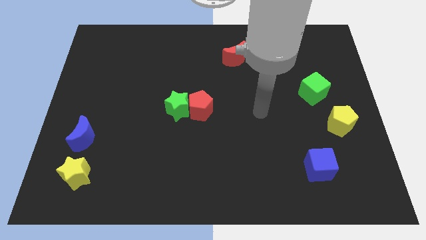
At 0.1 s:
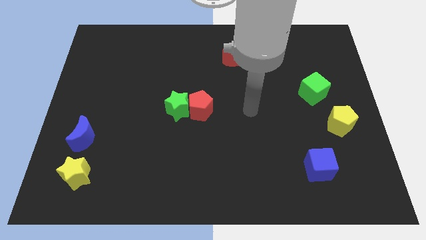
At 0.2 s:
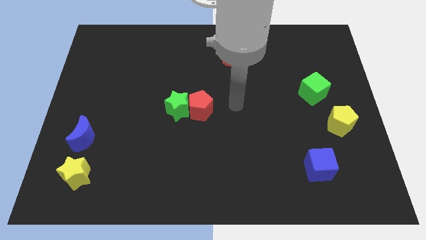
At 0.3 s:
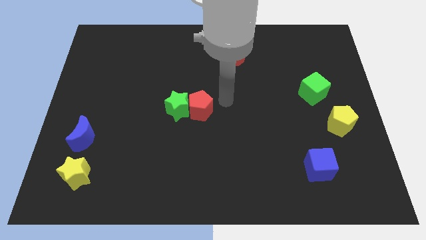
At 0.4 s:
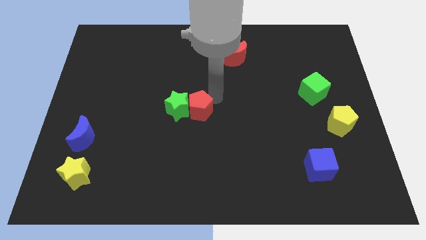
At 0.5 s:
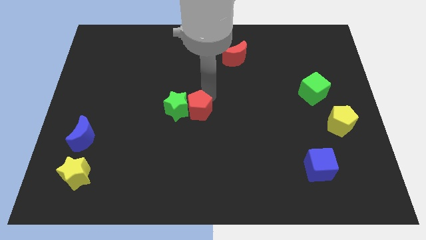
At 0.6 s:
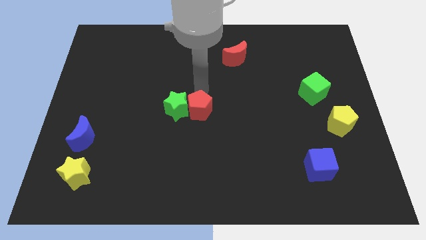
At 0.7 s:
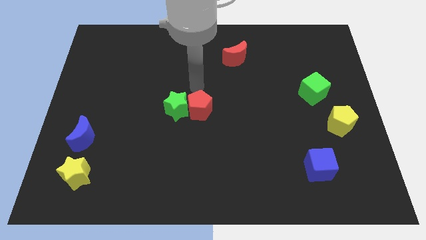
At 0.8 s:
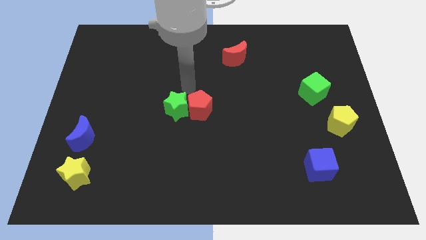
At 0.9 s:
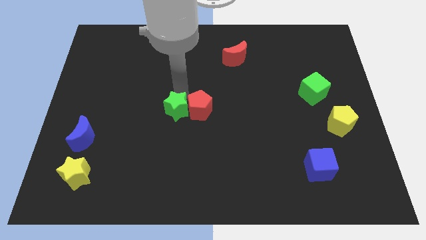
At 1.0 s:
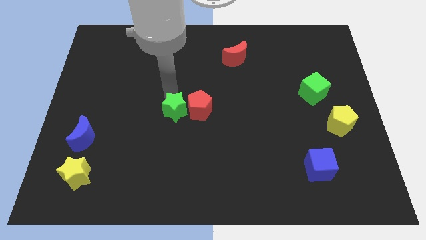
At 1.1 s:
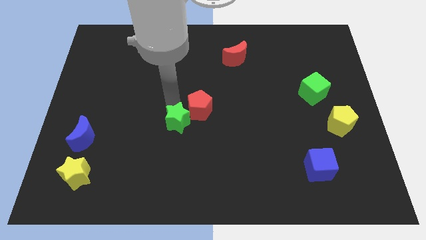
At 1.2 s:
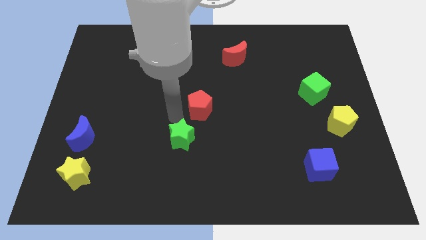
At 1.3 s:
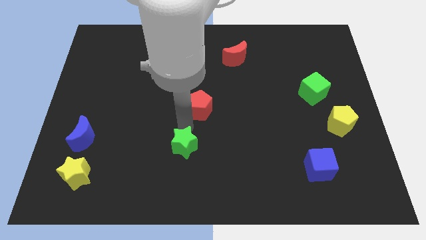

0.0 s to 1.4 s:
separate the red pentagon from the green star

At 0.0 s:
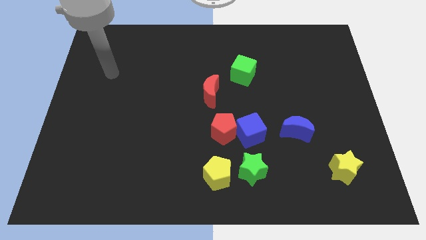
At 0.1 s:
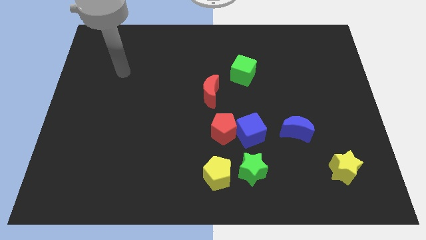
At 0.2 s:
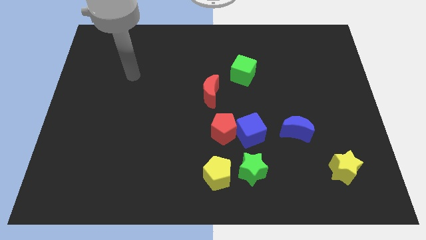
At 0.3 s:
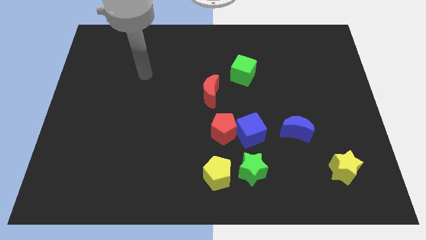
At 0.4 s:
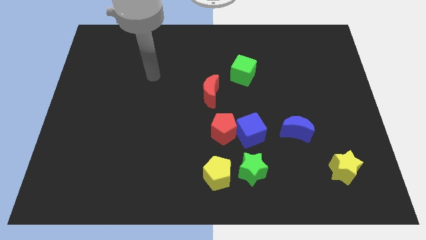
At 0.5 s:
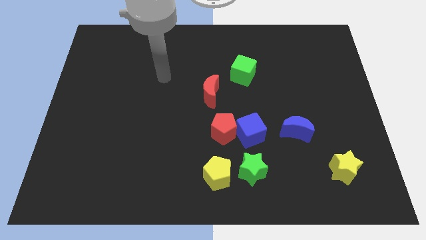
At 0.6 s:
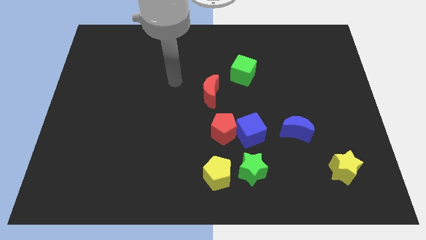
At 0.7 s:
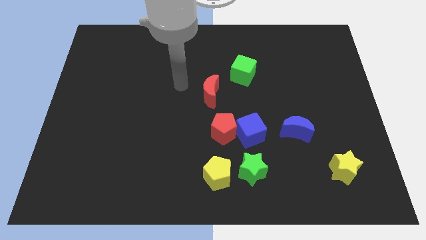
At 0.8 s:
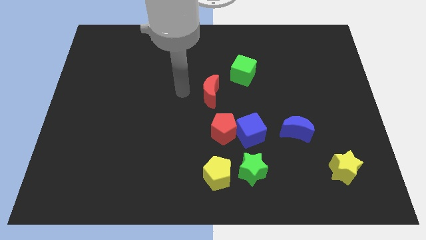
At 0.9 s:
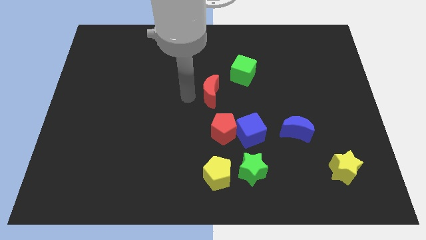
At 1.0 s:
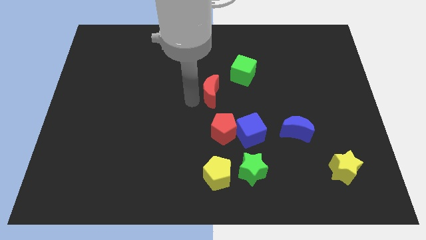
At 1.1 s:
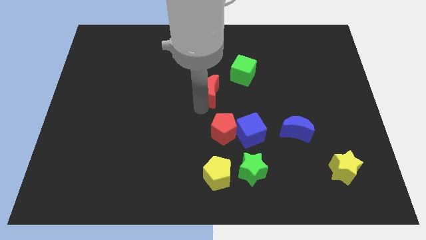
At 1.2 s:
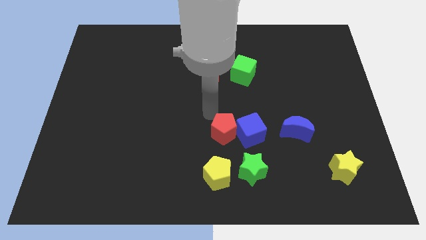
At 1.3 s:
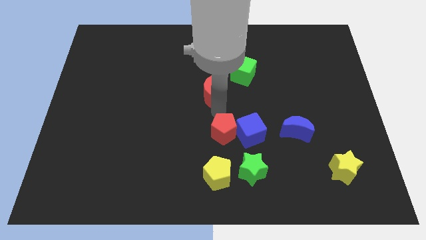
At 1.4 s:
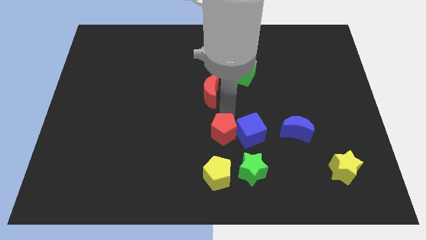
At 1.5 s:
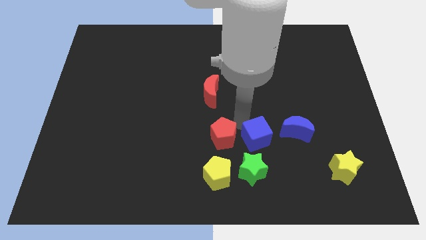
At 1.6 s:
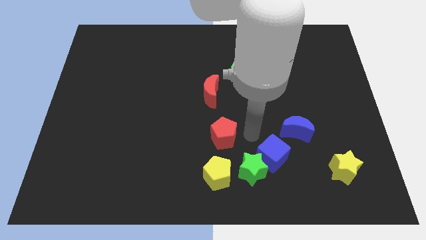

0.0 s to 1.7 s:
move the red pentagon away from the blue cube

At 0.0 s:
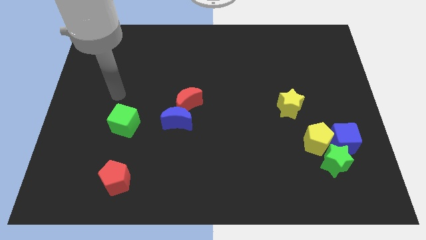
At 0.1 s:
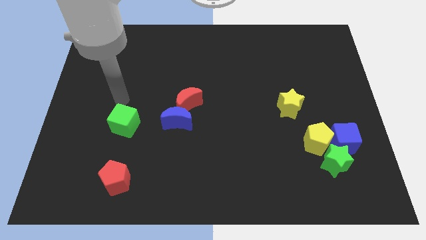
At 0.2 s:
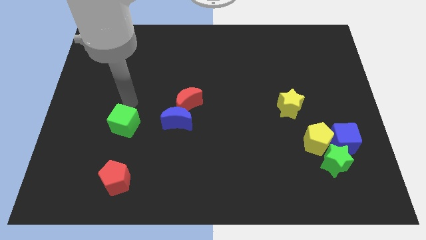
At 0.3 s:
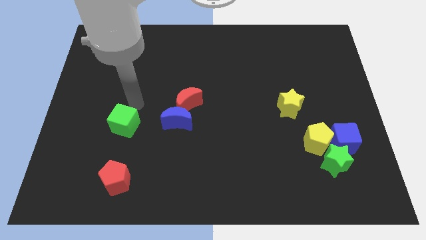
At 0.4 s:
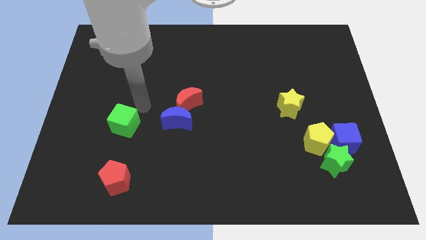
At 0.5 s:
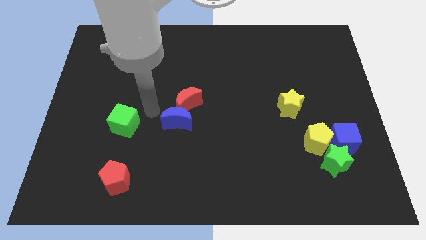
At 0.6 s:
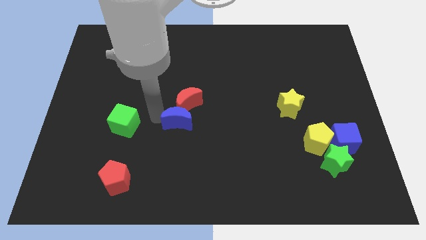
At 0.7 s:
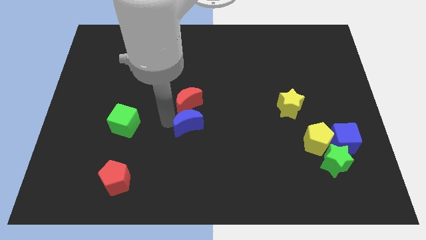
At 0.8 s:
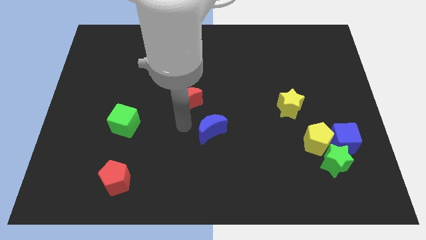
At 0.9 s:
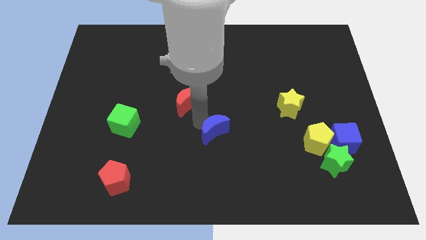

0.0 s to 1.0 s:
move the red moon away from the blue moon

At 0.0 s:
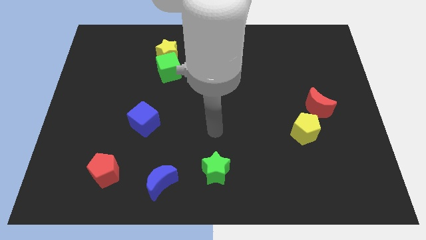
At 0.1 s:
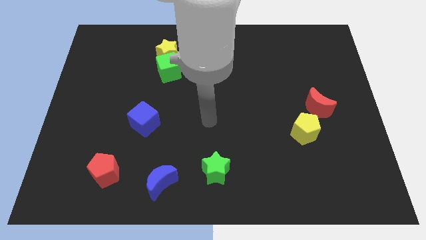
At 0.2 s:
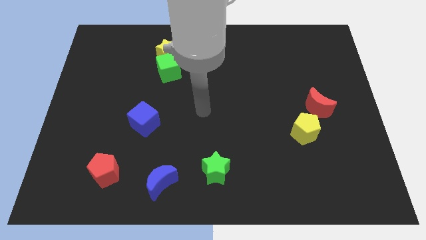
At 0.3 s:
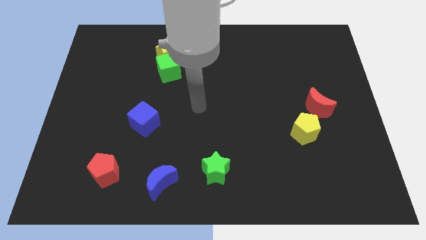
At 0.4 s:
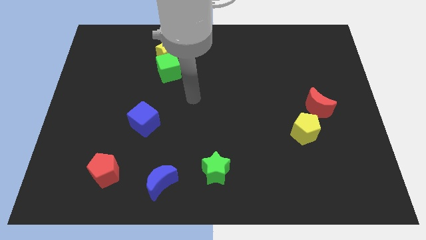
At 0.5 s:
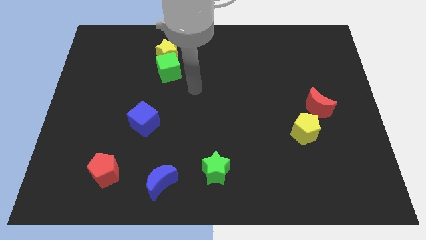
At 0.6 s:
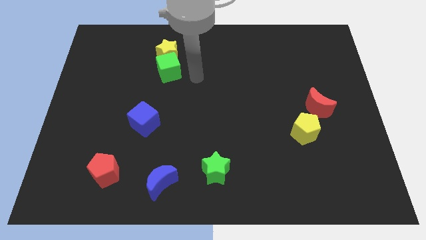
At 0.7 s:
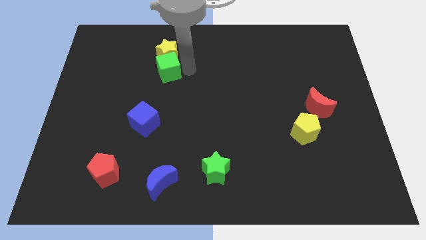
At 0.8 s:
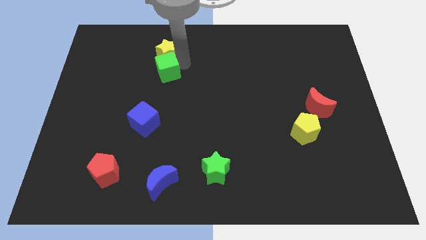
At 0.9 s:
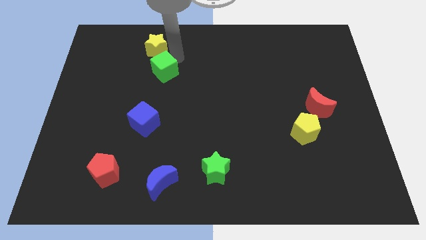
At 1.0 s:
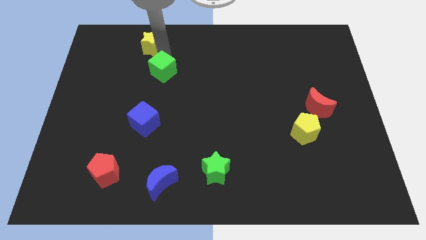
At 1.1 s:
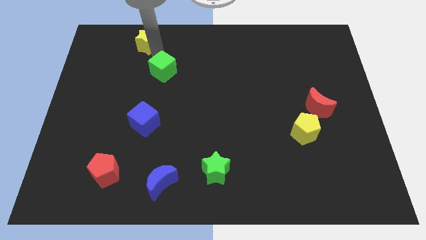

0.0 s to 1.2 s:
separate the green cube from the yellow star

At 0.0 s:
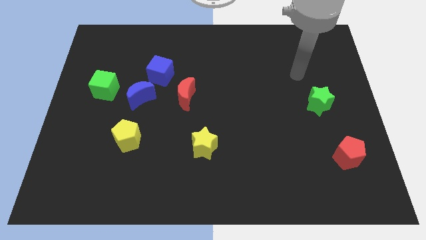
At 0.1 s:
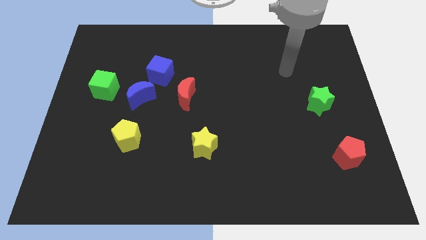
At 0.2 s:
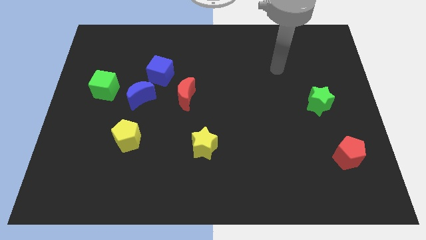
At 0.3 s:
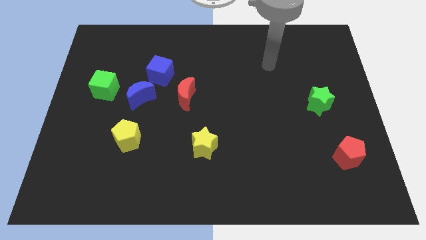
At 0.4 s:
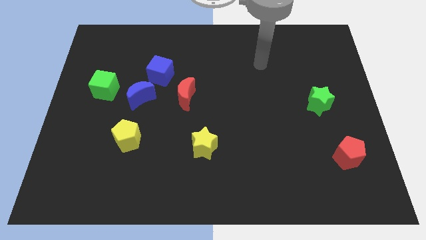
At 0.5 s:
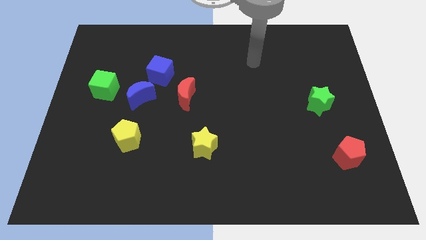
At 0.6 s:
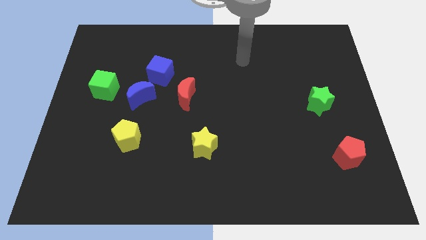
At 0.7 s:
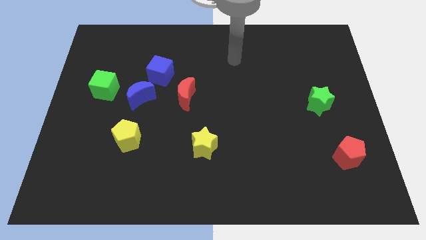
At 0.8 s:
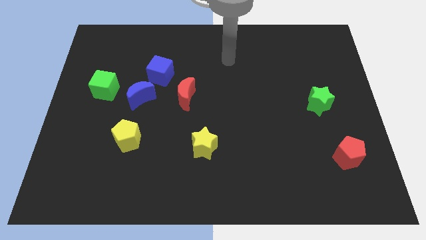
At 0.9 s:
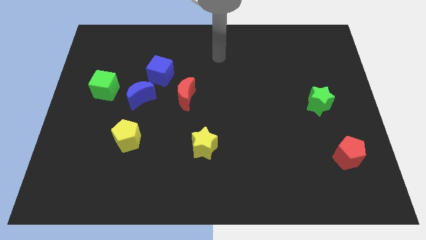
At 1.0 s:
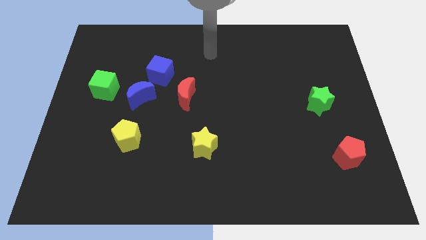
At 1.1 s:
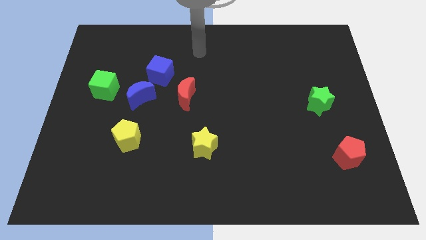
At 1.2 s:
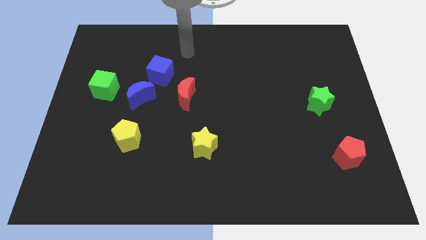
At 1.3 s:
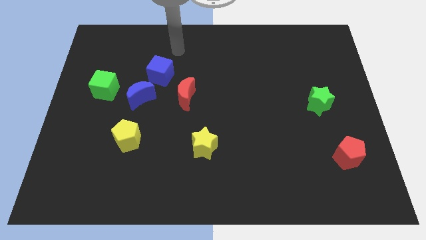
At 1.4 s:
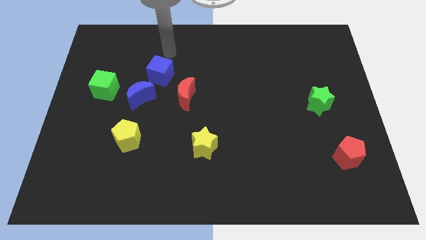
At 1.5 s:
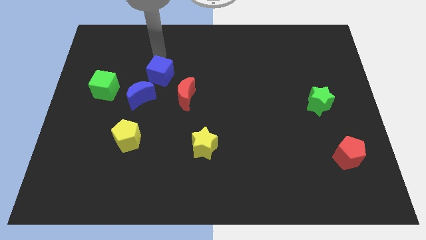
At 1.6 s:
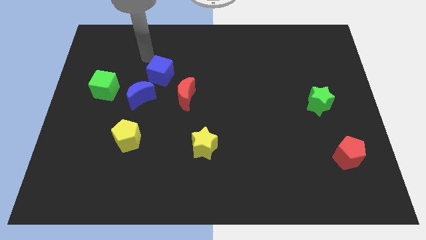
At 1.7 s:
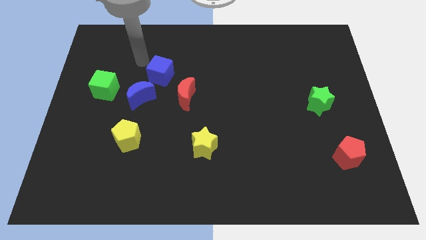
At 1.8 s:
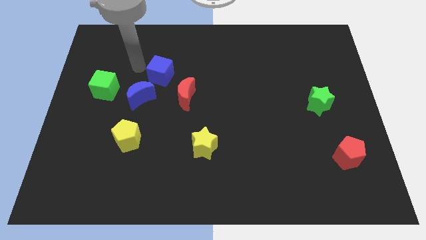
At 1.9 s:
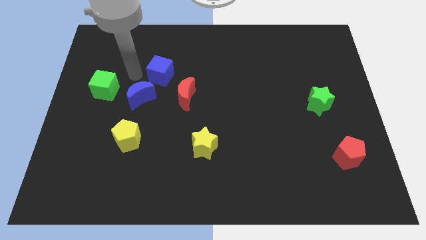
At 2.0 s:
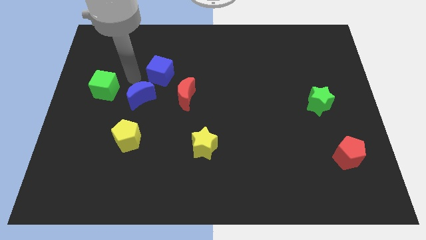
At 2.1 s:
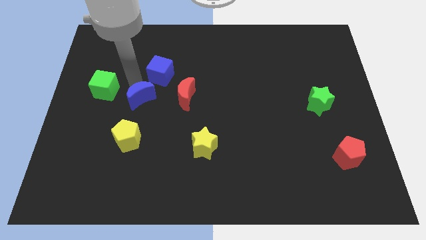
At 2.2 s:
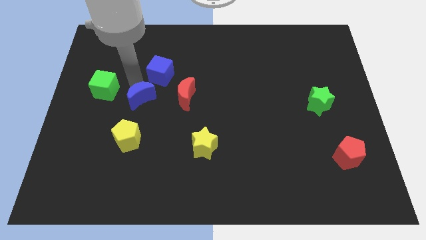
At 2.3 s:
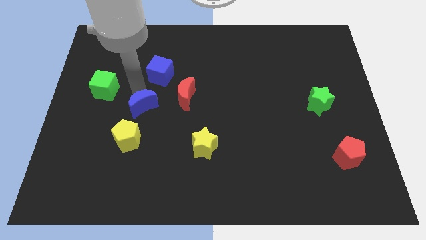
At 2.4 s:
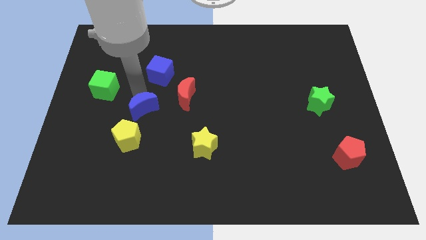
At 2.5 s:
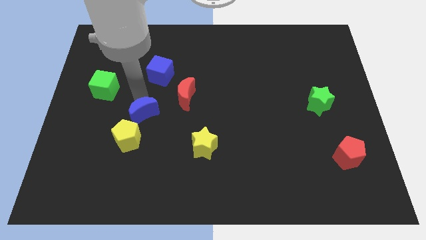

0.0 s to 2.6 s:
move the blue moon away from the blue cube and green cube

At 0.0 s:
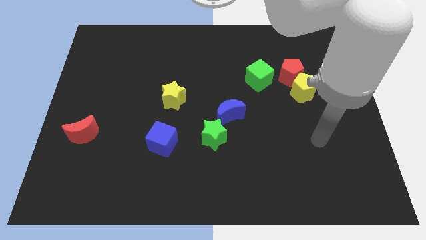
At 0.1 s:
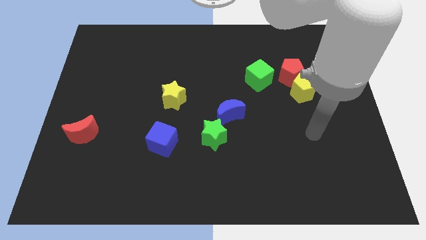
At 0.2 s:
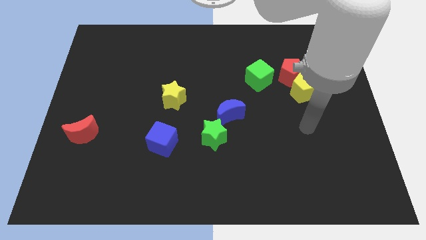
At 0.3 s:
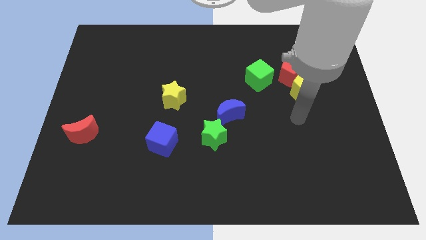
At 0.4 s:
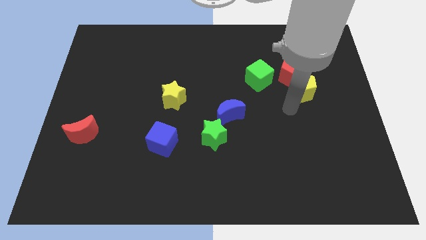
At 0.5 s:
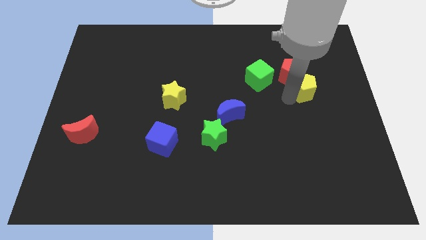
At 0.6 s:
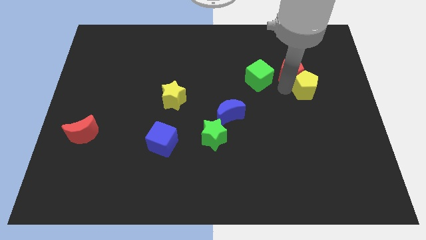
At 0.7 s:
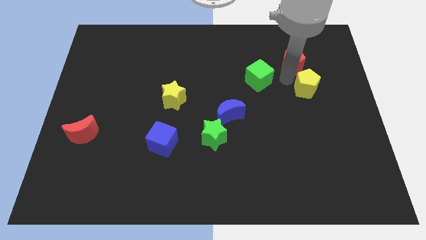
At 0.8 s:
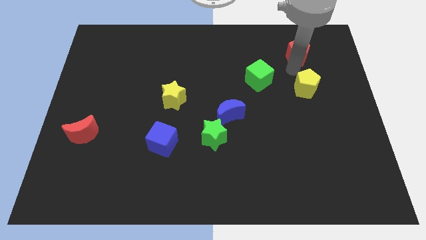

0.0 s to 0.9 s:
pull the yellow pentagon apart from the red pentagon

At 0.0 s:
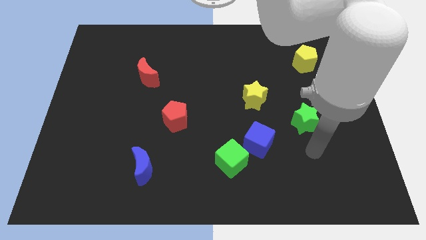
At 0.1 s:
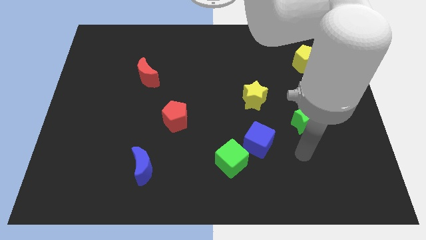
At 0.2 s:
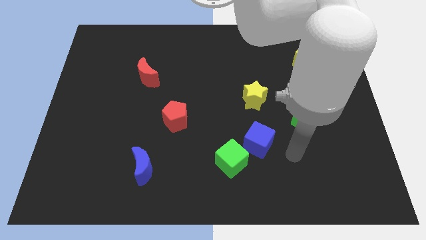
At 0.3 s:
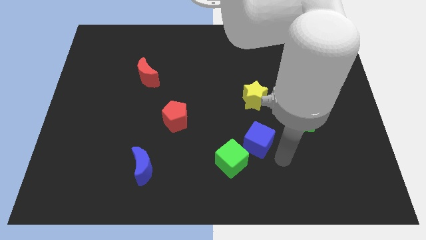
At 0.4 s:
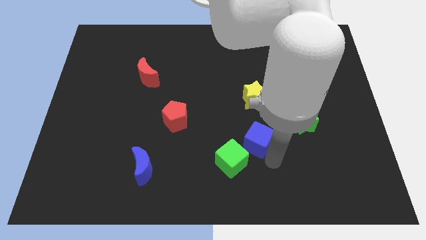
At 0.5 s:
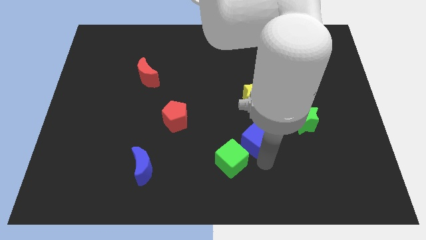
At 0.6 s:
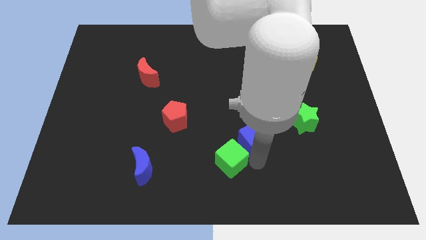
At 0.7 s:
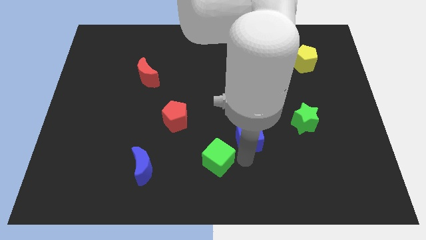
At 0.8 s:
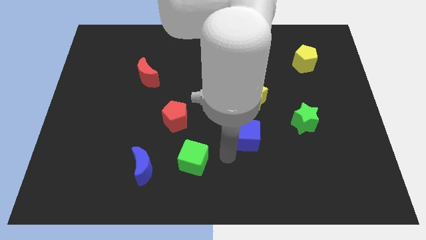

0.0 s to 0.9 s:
separate the blue cube from the green cube
